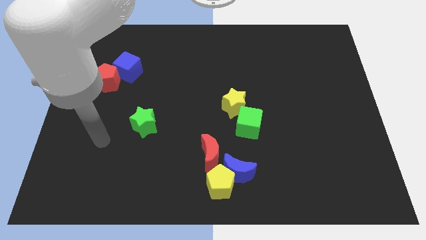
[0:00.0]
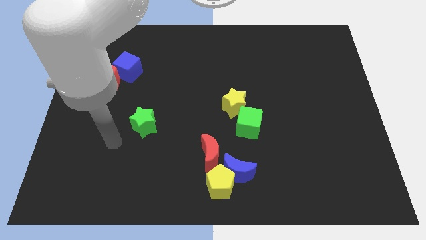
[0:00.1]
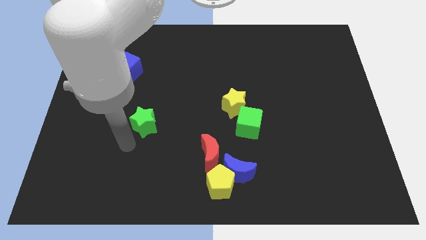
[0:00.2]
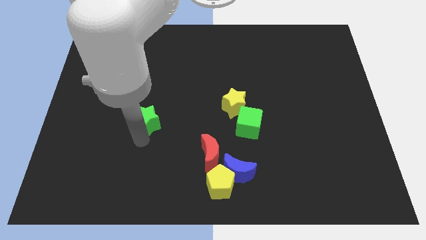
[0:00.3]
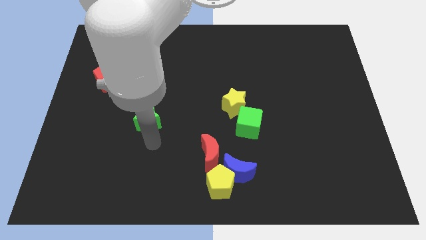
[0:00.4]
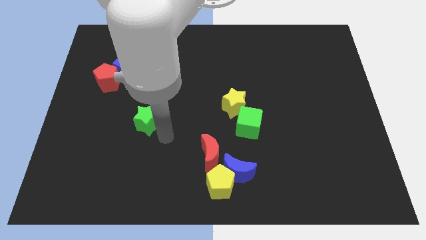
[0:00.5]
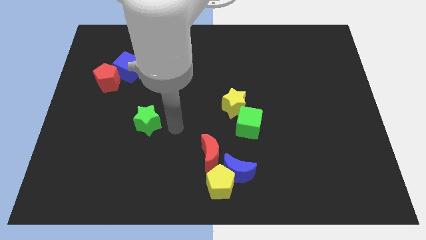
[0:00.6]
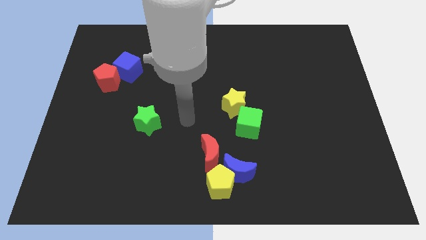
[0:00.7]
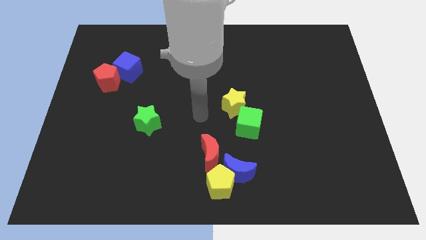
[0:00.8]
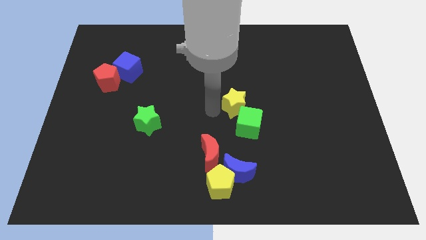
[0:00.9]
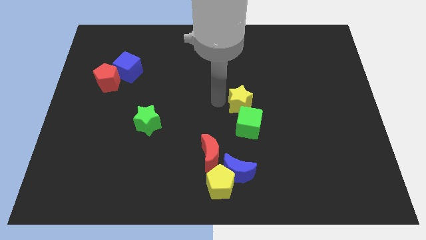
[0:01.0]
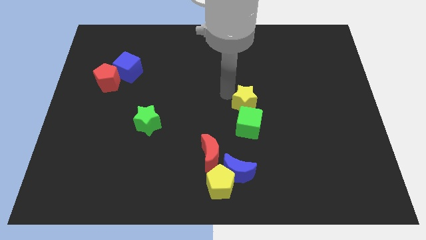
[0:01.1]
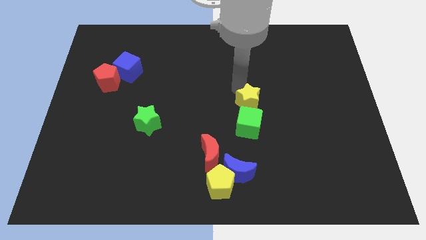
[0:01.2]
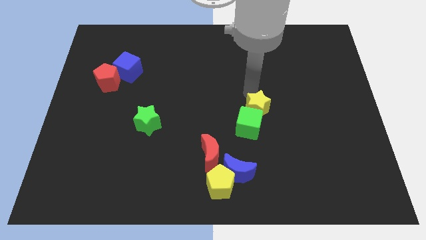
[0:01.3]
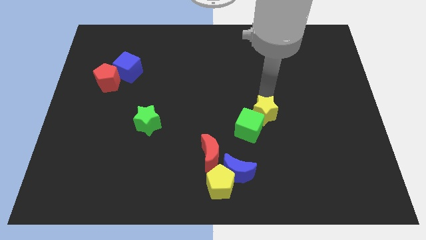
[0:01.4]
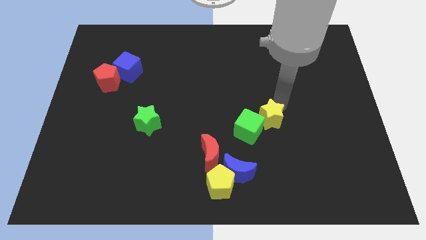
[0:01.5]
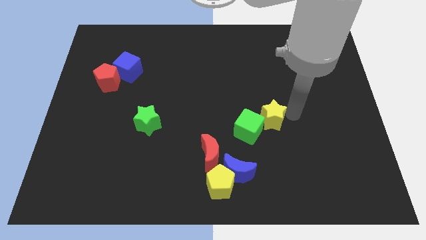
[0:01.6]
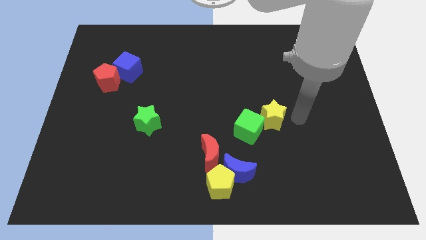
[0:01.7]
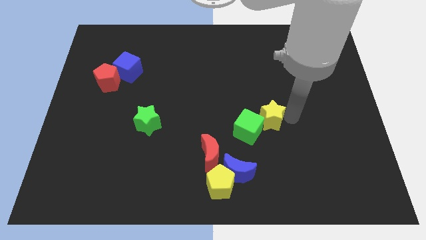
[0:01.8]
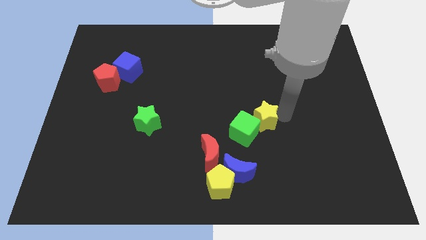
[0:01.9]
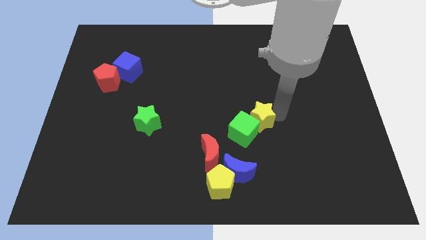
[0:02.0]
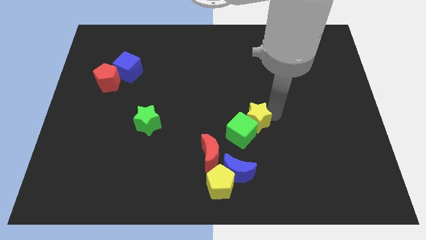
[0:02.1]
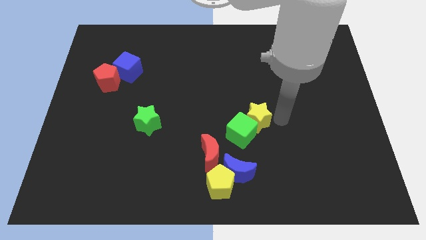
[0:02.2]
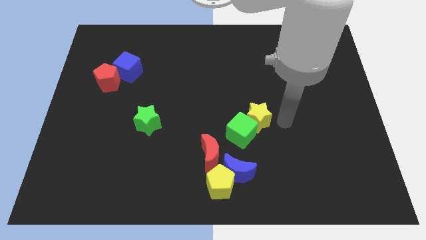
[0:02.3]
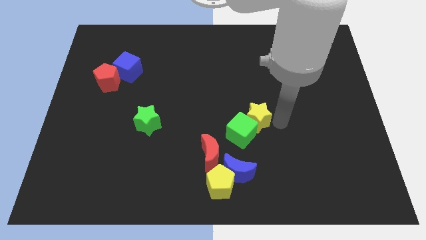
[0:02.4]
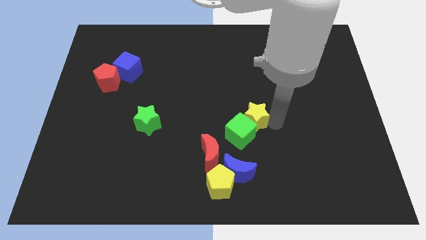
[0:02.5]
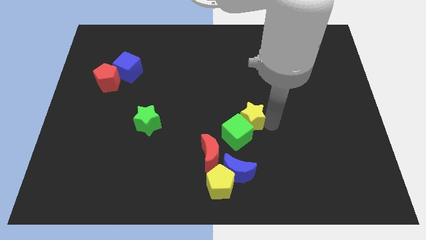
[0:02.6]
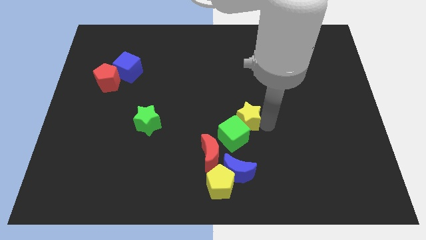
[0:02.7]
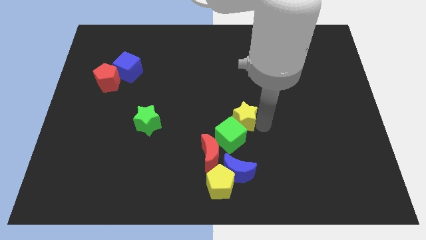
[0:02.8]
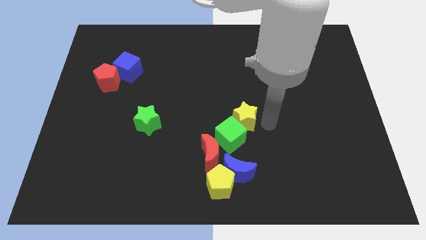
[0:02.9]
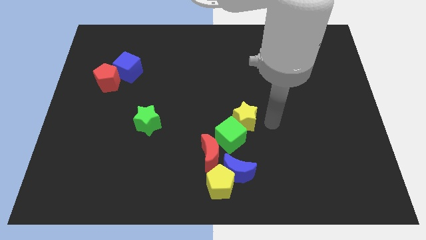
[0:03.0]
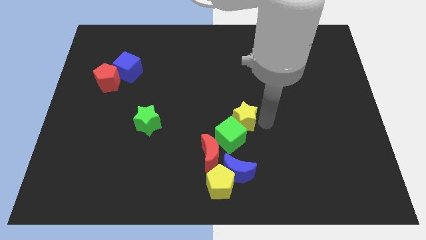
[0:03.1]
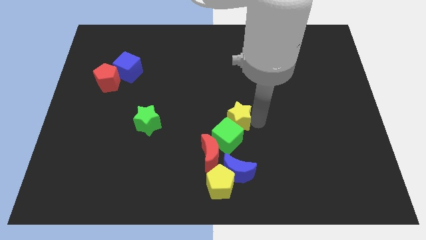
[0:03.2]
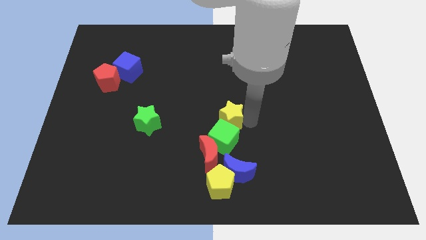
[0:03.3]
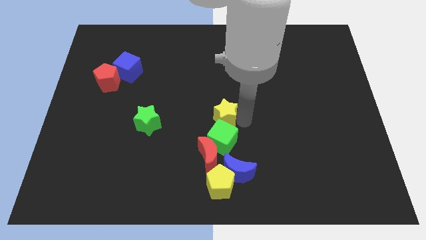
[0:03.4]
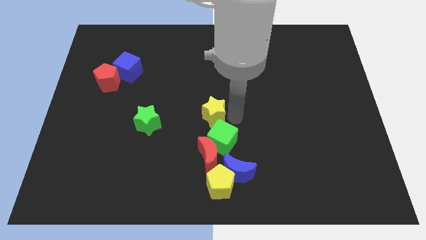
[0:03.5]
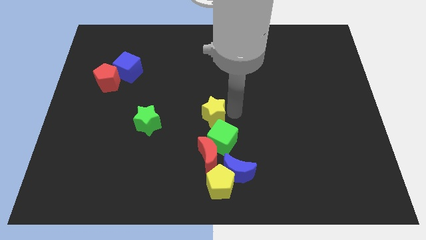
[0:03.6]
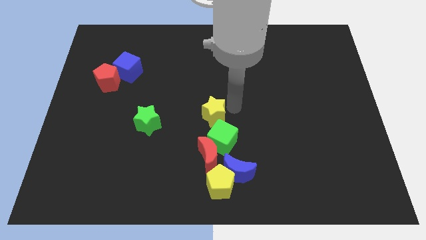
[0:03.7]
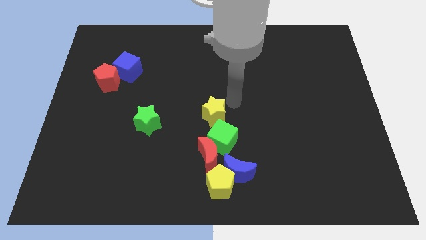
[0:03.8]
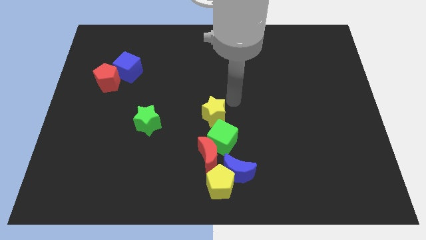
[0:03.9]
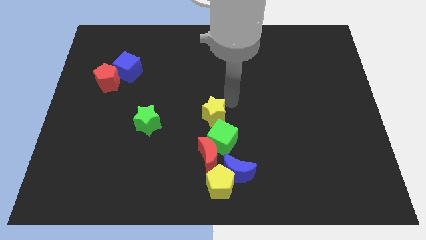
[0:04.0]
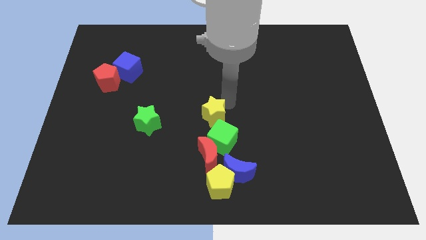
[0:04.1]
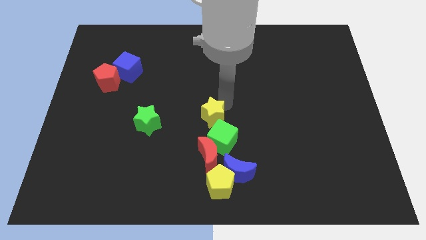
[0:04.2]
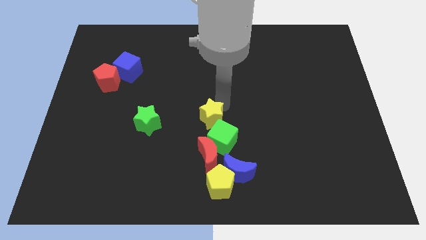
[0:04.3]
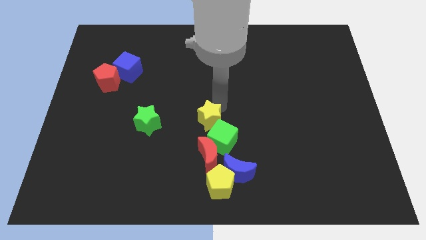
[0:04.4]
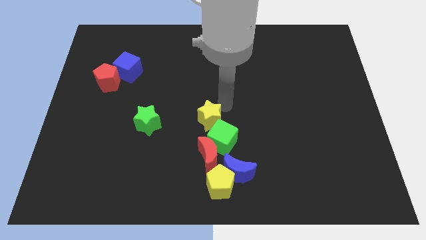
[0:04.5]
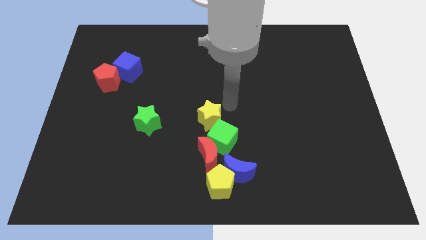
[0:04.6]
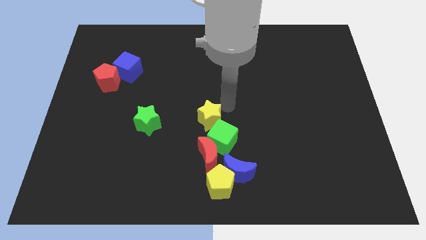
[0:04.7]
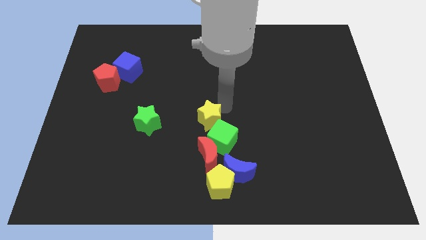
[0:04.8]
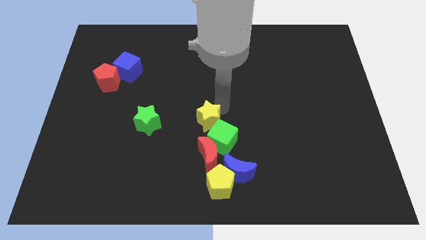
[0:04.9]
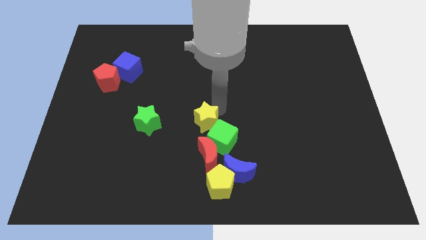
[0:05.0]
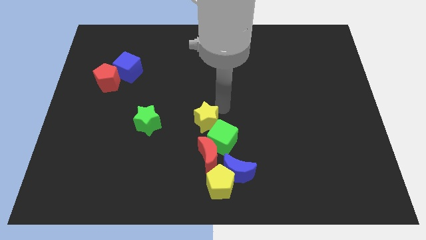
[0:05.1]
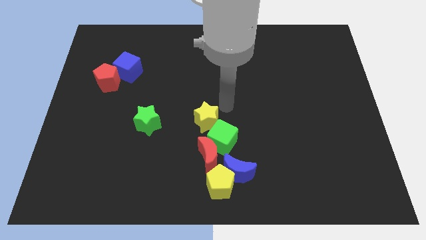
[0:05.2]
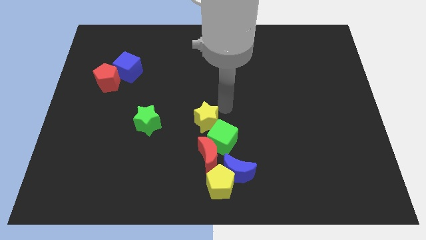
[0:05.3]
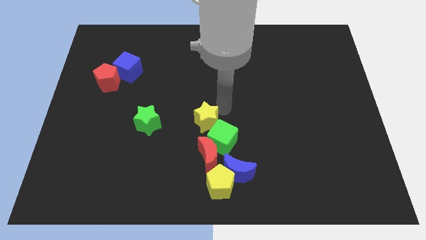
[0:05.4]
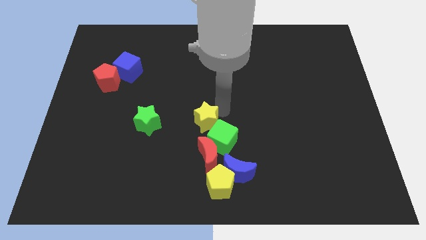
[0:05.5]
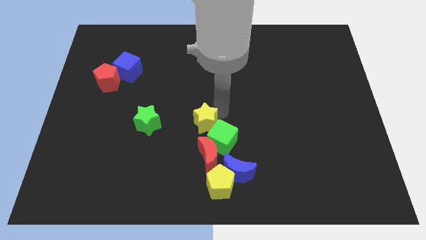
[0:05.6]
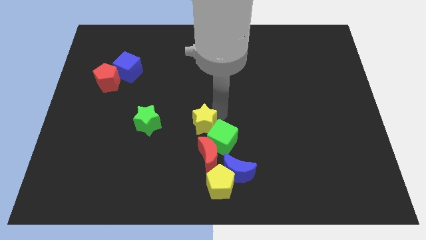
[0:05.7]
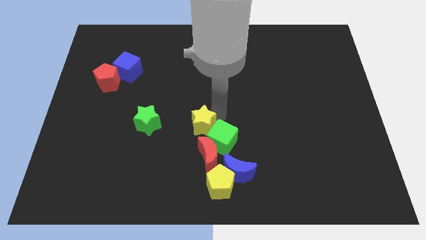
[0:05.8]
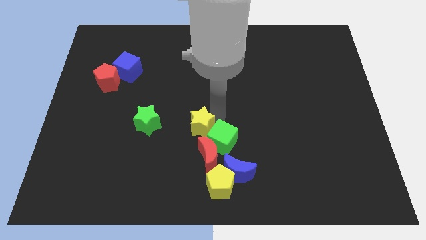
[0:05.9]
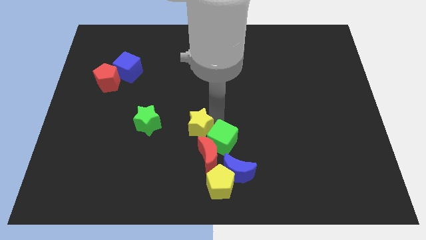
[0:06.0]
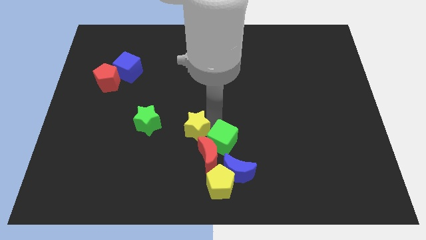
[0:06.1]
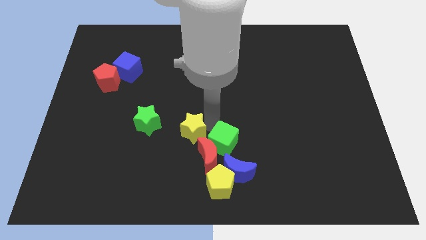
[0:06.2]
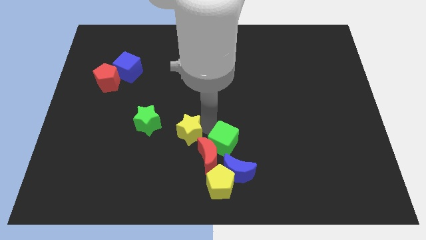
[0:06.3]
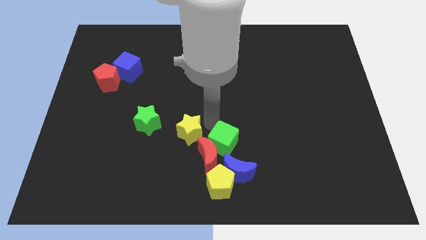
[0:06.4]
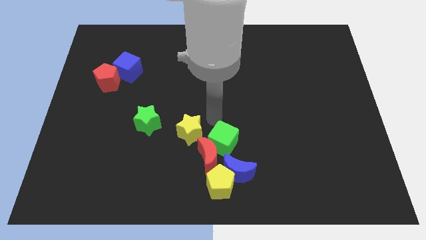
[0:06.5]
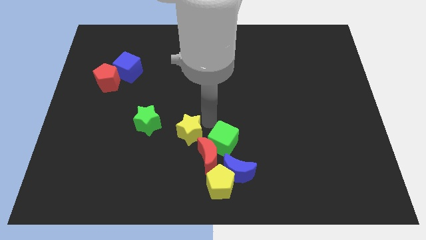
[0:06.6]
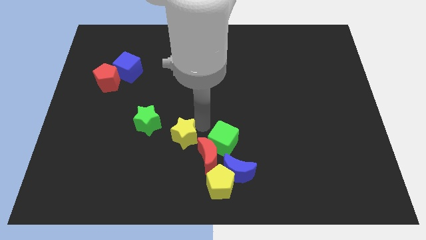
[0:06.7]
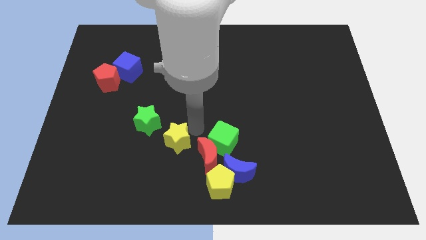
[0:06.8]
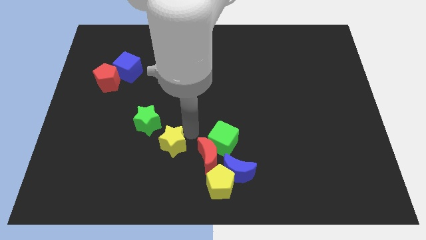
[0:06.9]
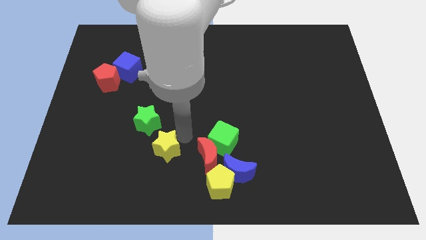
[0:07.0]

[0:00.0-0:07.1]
put the yellow star to the bottom side of the green star
